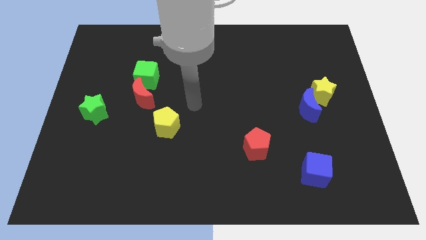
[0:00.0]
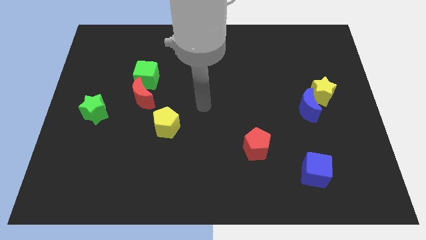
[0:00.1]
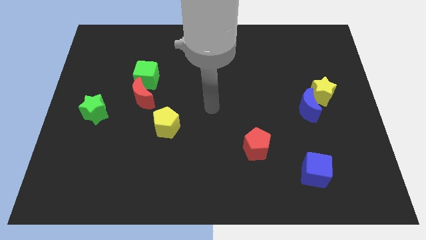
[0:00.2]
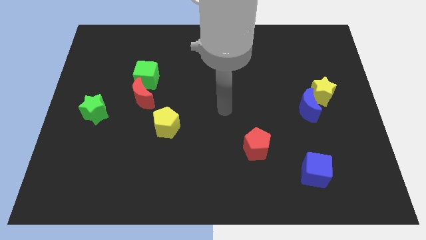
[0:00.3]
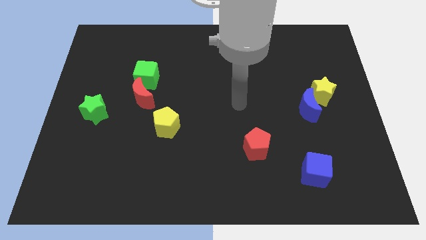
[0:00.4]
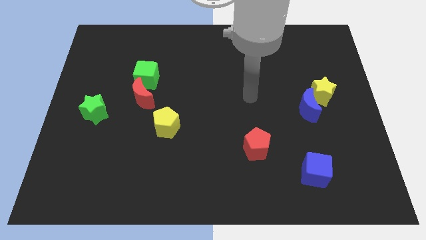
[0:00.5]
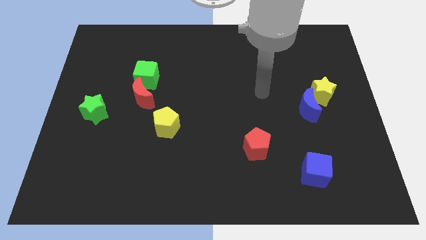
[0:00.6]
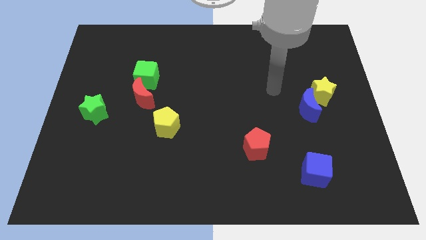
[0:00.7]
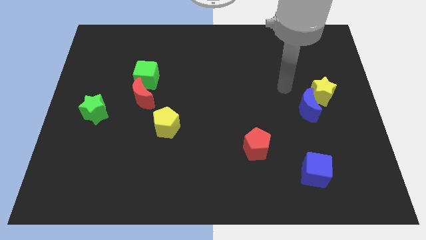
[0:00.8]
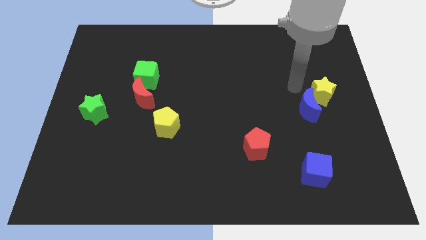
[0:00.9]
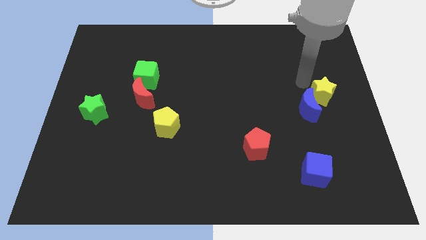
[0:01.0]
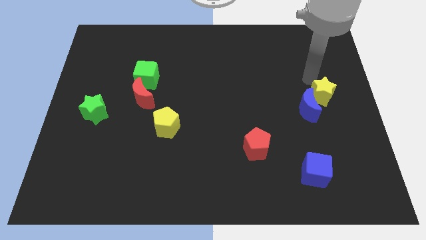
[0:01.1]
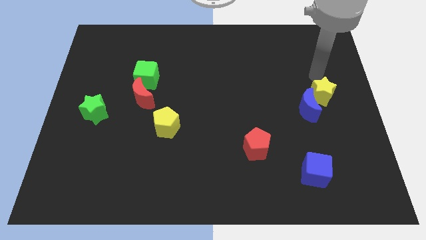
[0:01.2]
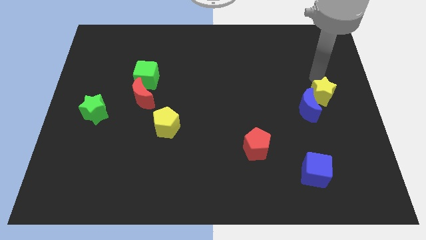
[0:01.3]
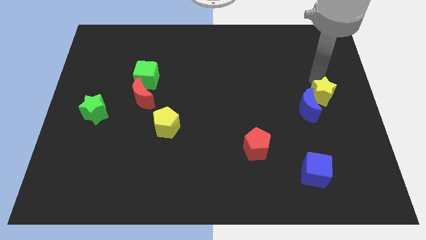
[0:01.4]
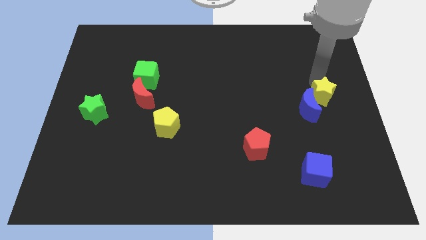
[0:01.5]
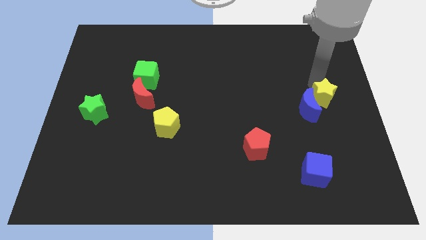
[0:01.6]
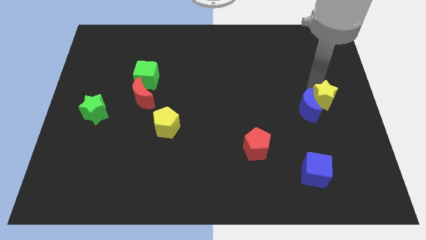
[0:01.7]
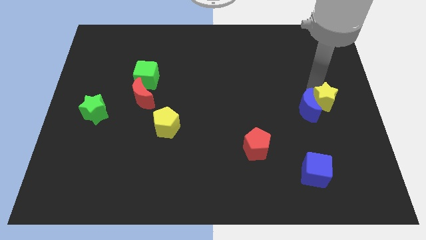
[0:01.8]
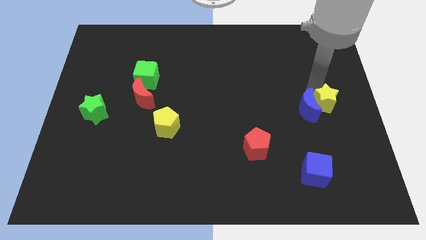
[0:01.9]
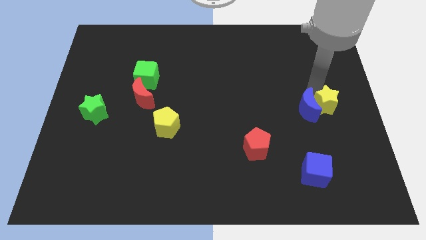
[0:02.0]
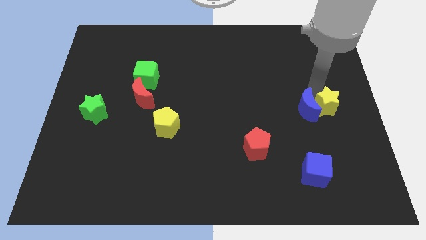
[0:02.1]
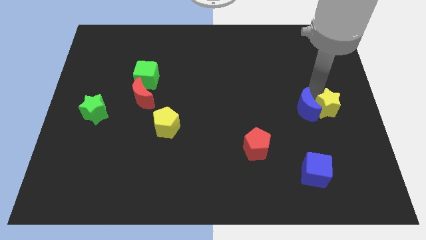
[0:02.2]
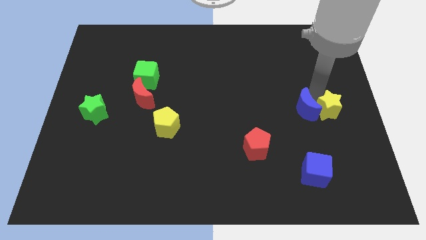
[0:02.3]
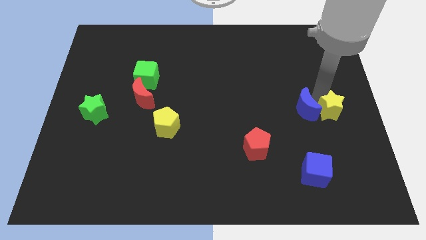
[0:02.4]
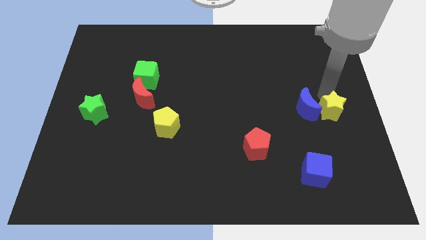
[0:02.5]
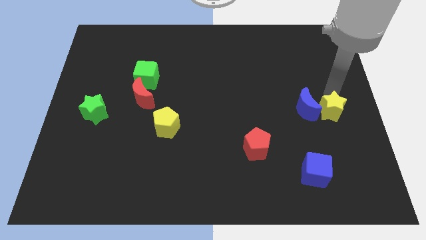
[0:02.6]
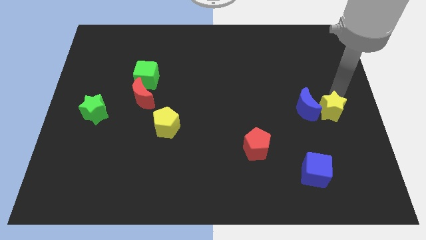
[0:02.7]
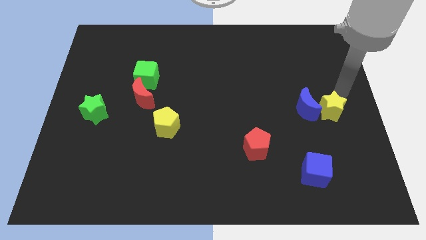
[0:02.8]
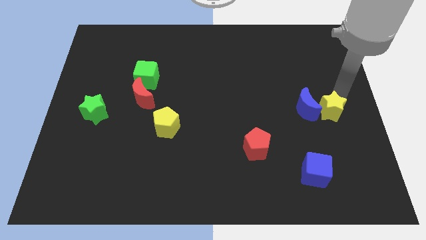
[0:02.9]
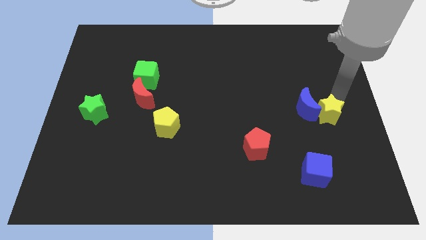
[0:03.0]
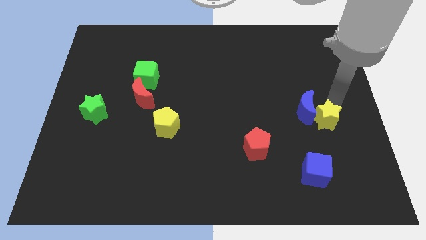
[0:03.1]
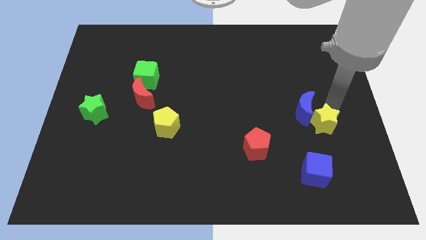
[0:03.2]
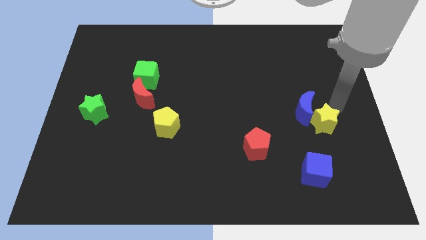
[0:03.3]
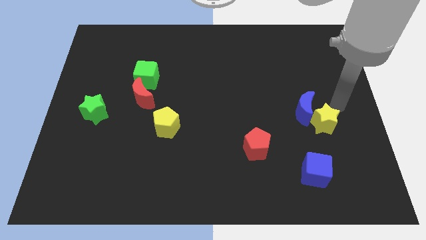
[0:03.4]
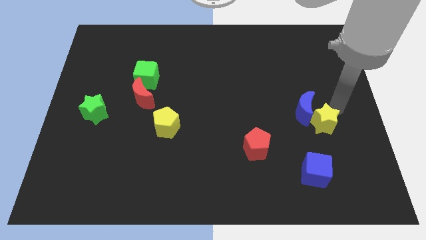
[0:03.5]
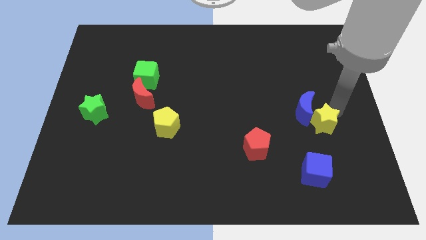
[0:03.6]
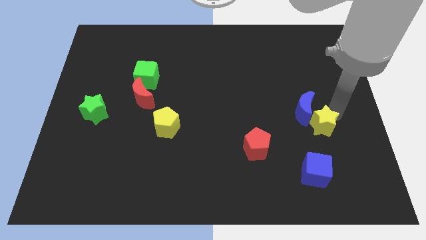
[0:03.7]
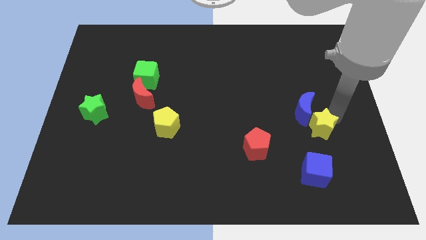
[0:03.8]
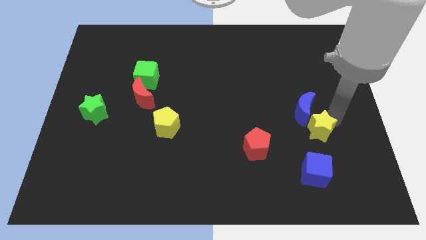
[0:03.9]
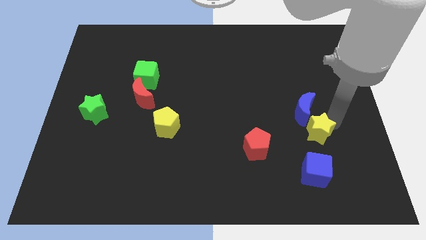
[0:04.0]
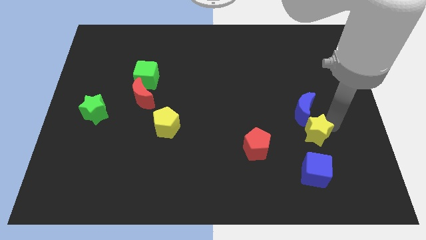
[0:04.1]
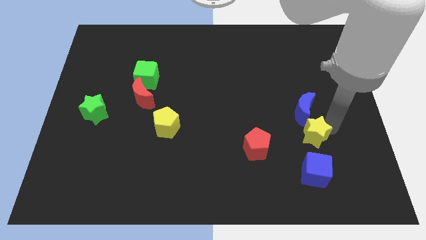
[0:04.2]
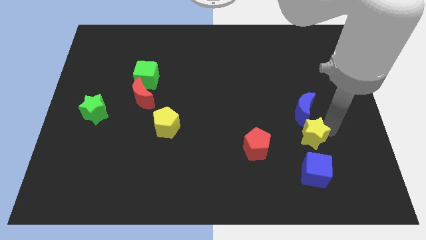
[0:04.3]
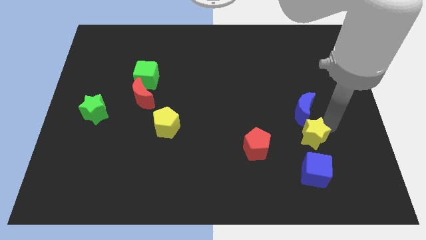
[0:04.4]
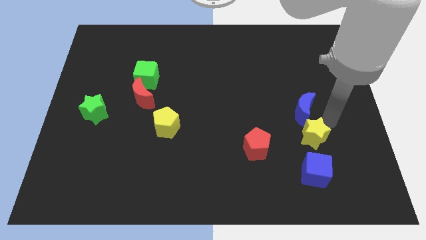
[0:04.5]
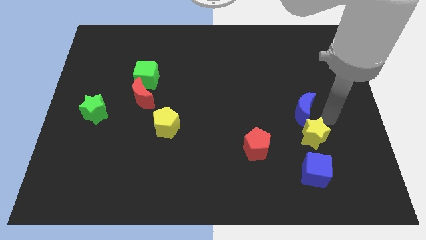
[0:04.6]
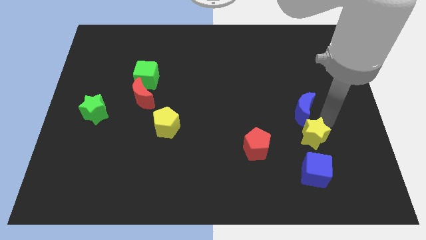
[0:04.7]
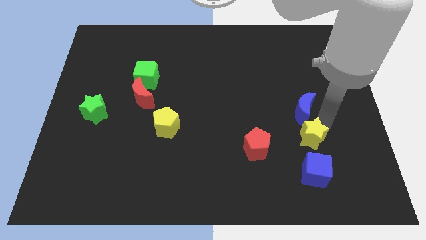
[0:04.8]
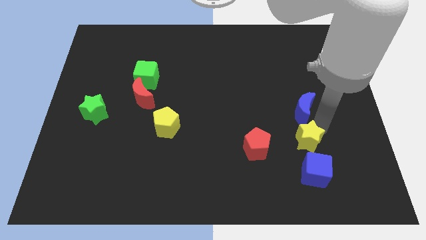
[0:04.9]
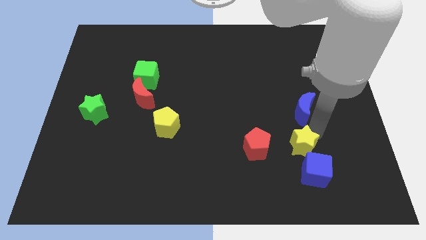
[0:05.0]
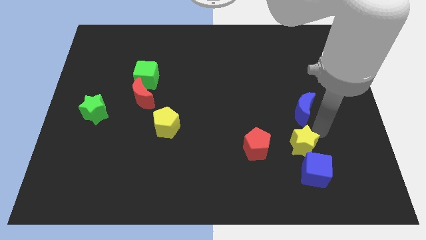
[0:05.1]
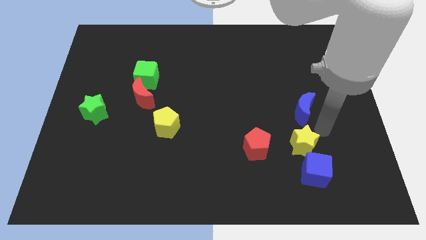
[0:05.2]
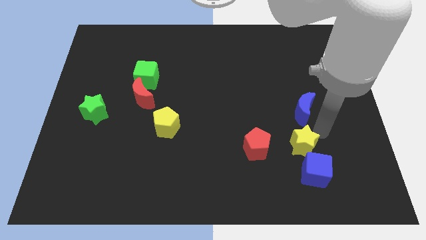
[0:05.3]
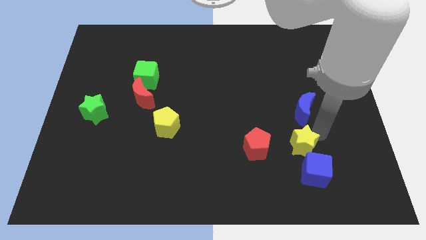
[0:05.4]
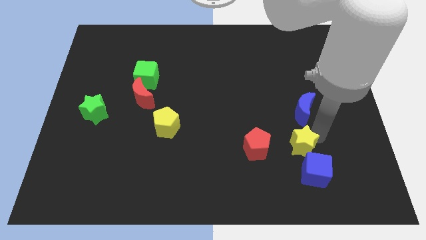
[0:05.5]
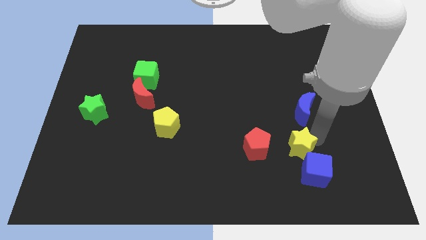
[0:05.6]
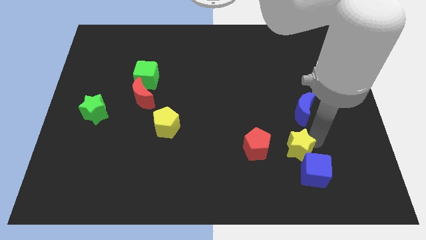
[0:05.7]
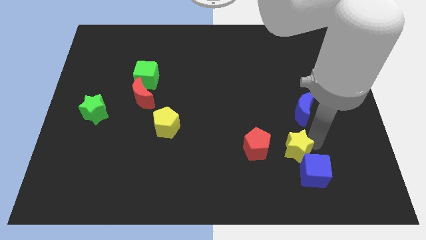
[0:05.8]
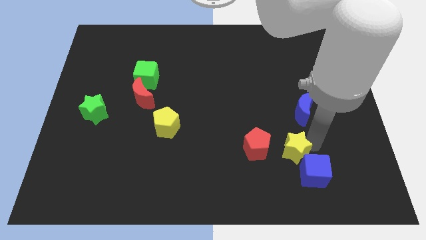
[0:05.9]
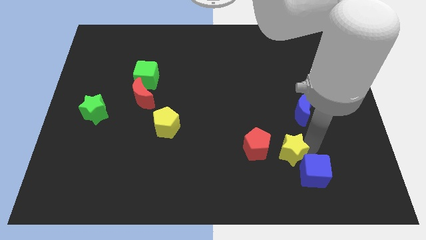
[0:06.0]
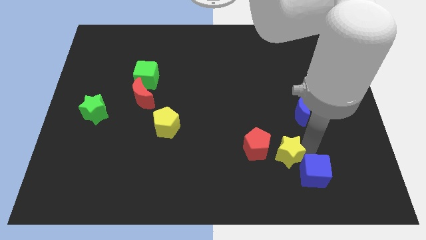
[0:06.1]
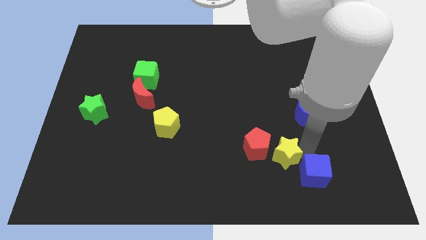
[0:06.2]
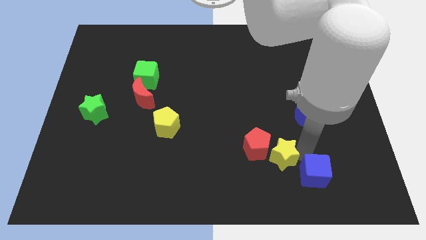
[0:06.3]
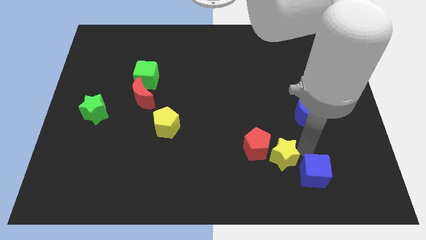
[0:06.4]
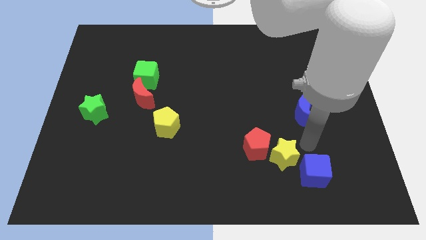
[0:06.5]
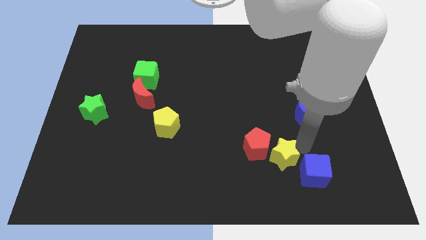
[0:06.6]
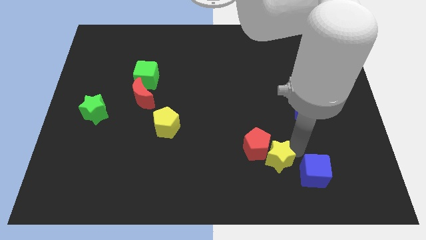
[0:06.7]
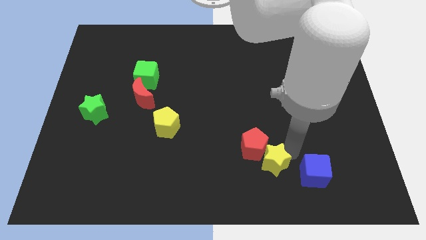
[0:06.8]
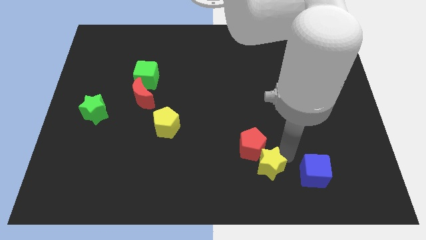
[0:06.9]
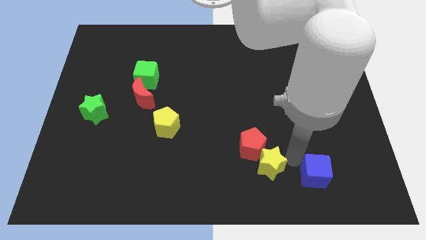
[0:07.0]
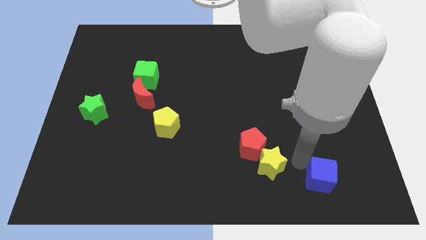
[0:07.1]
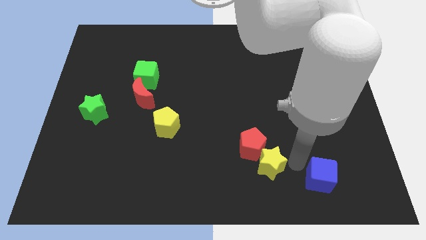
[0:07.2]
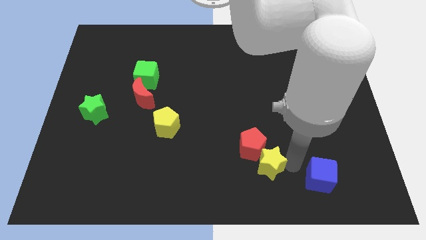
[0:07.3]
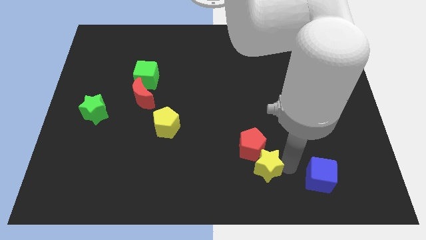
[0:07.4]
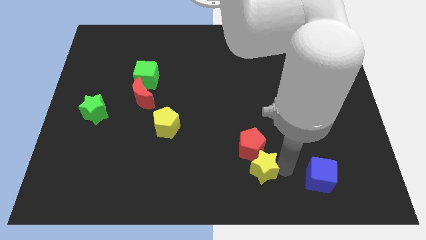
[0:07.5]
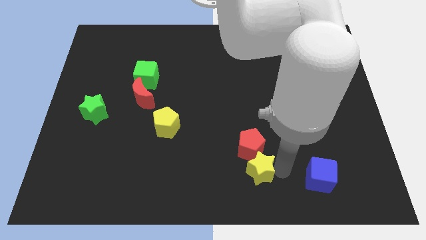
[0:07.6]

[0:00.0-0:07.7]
push the yellow star diagonally down and to the left of the red pentagon
